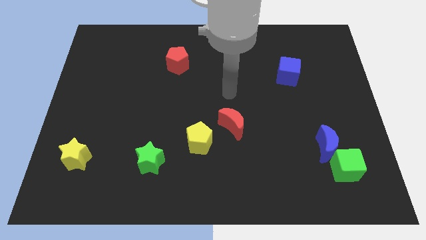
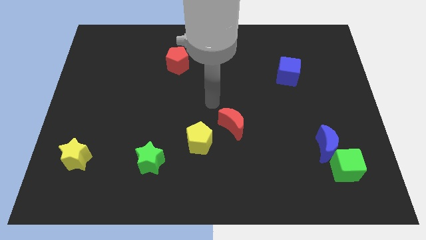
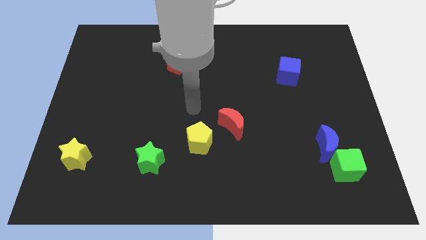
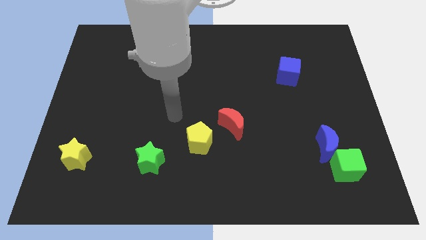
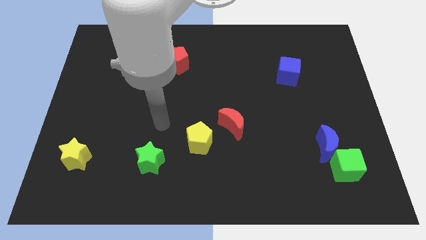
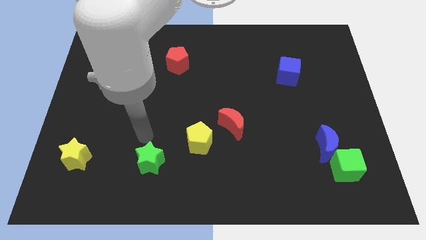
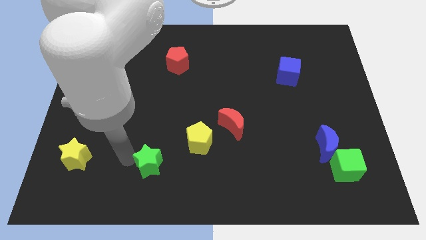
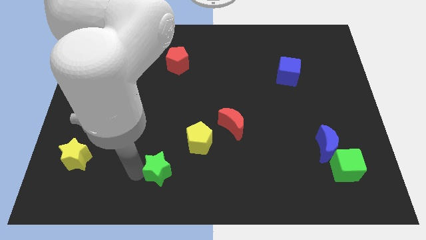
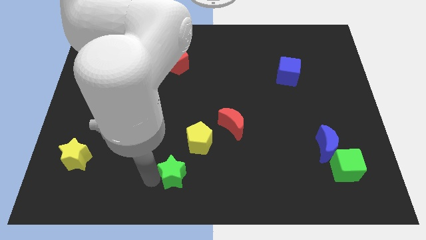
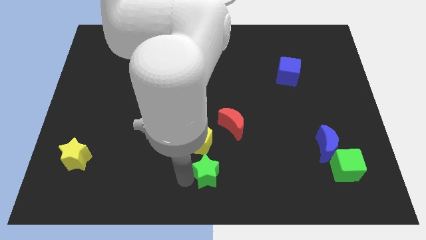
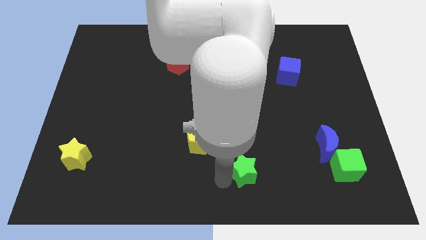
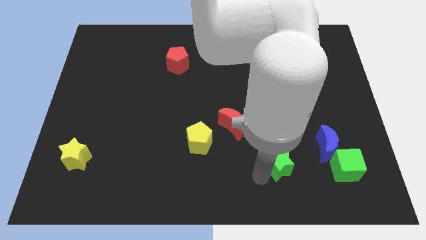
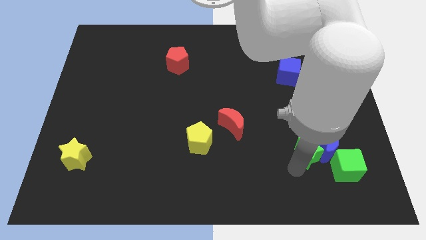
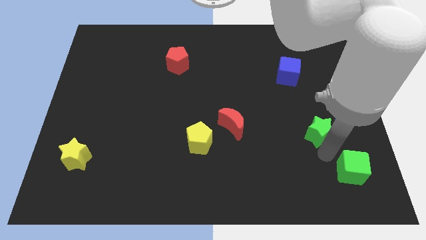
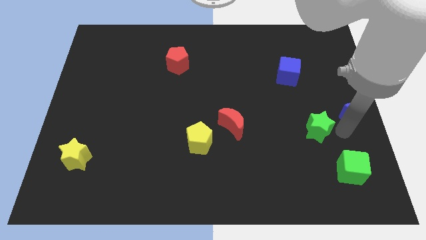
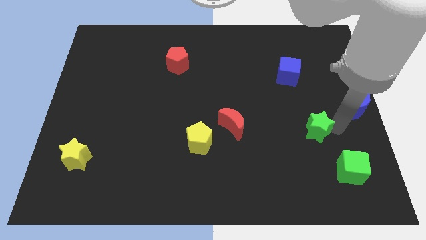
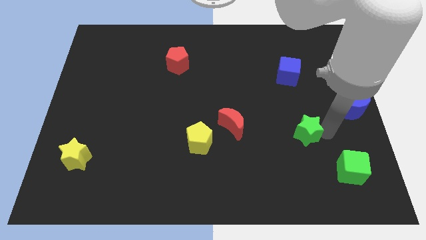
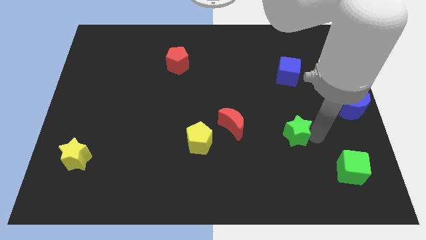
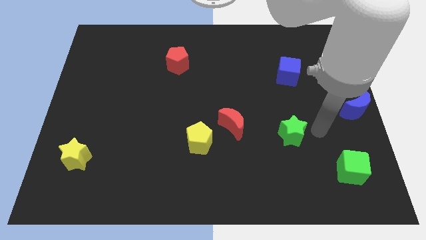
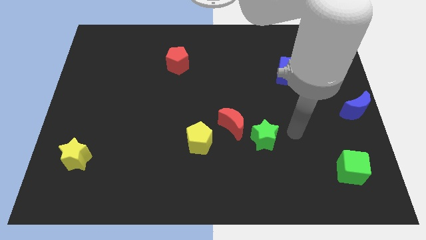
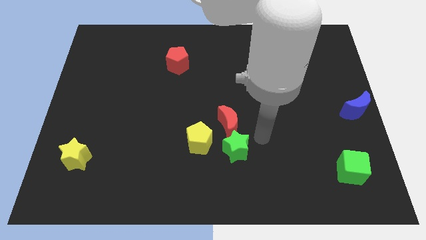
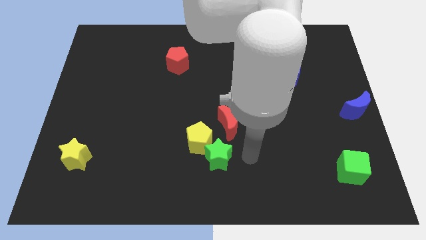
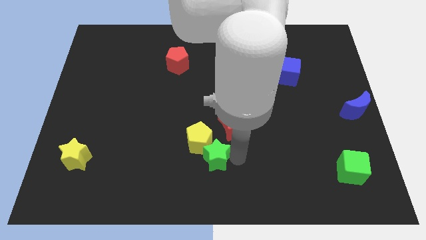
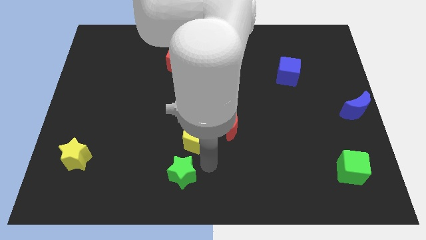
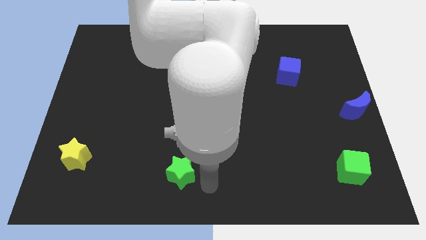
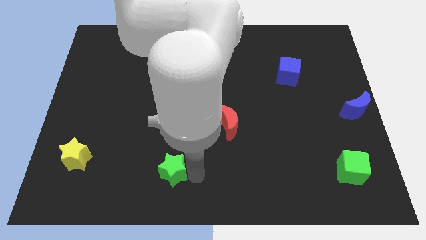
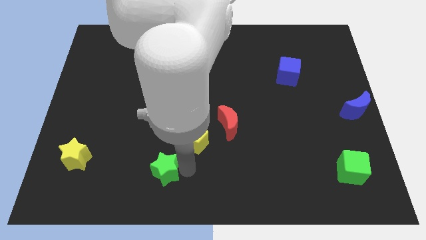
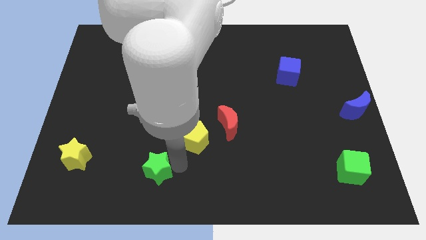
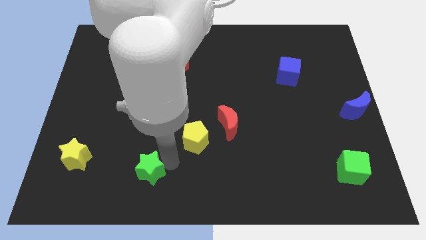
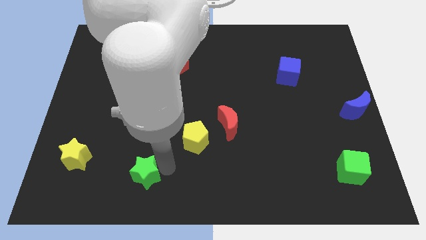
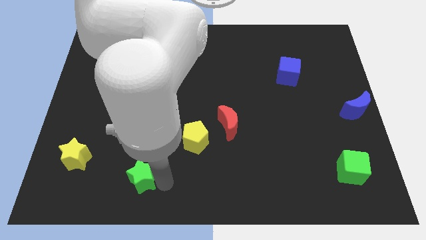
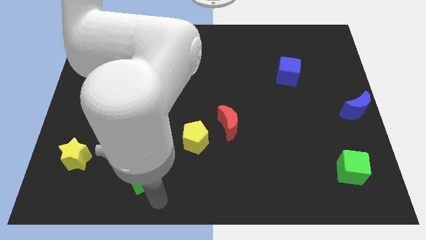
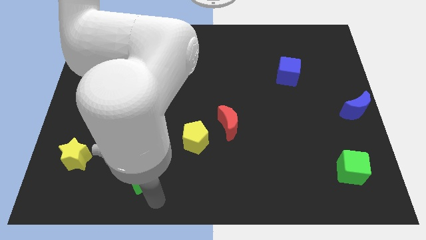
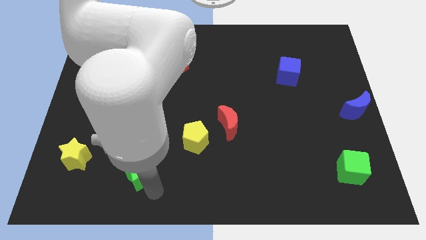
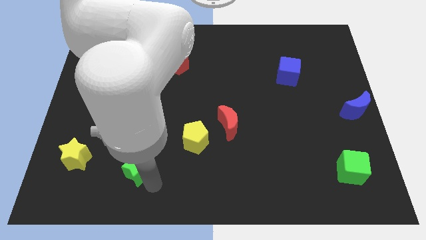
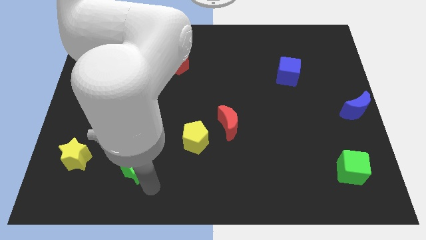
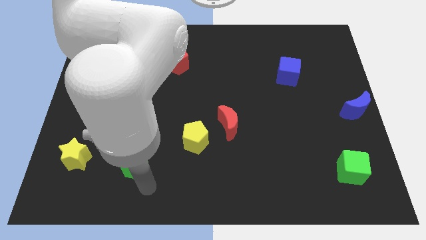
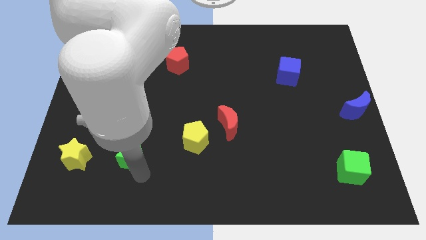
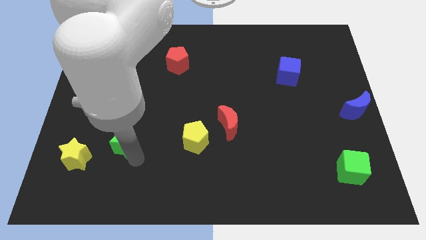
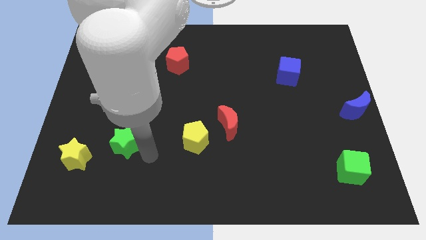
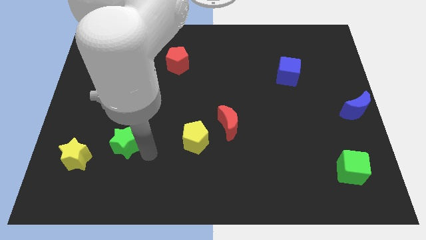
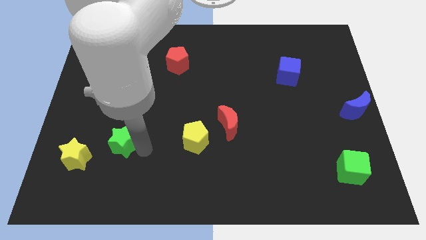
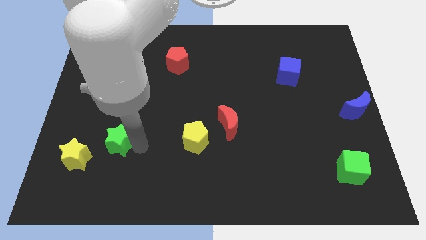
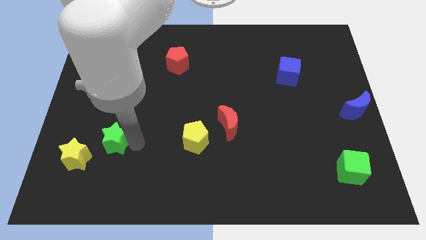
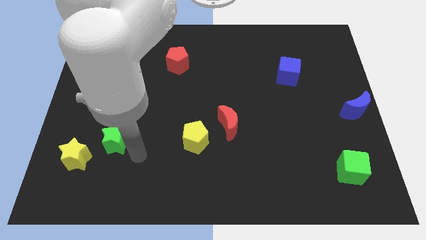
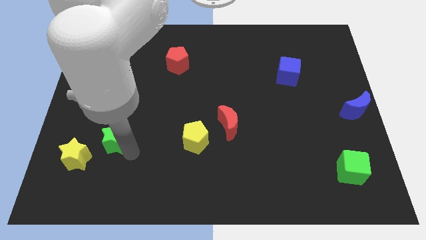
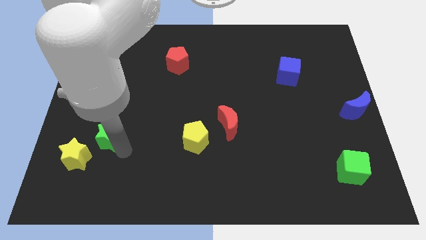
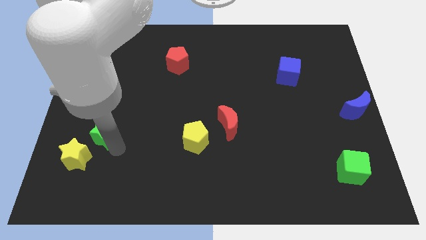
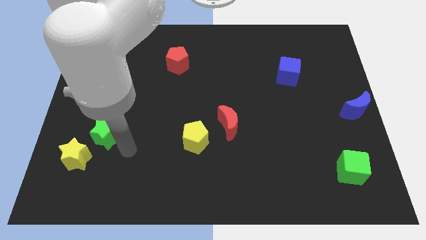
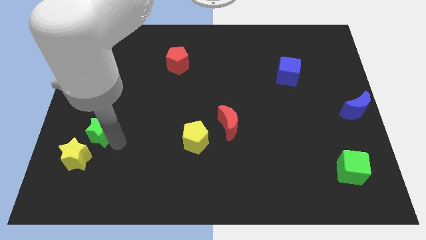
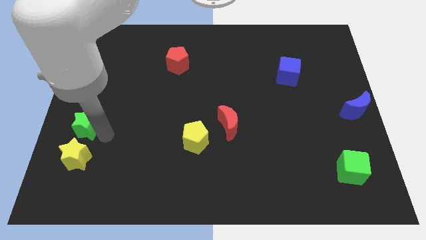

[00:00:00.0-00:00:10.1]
put the green star to the left side of the board

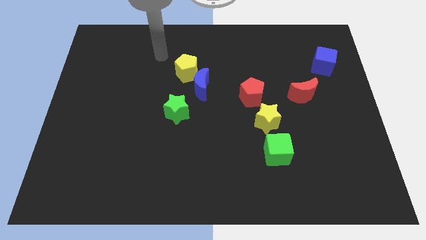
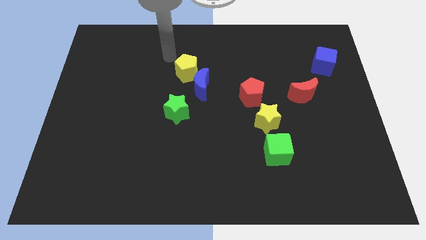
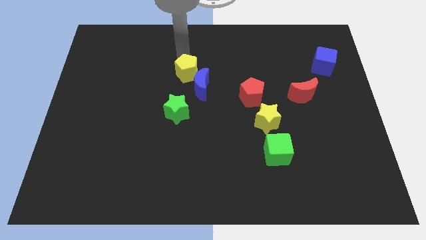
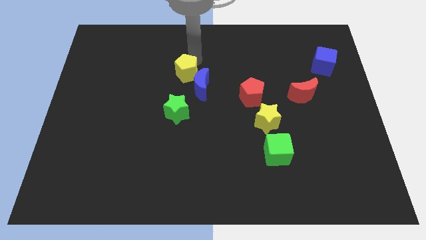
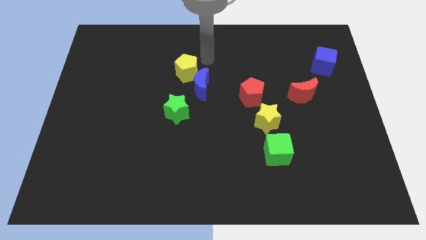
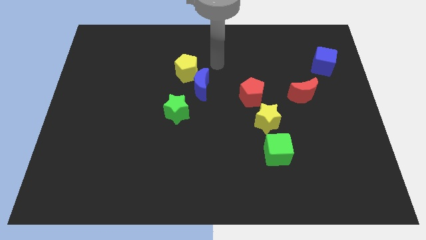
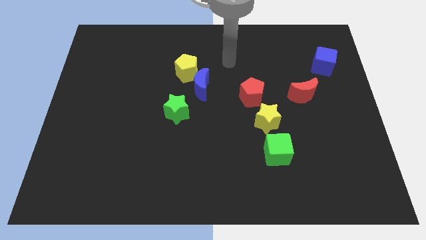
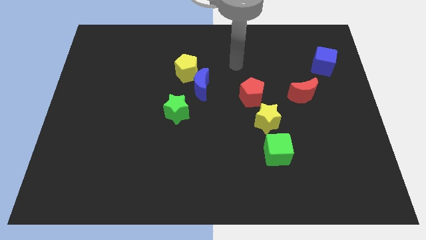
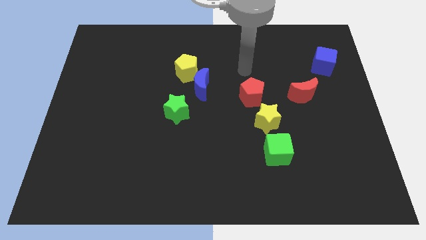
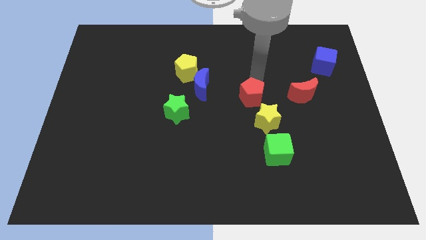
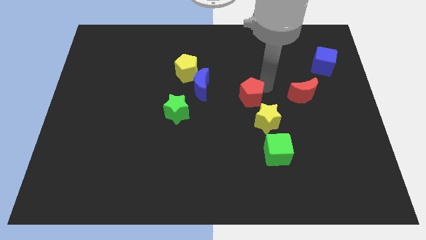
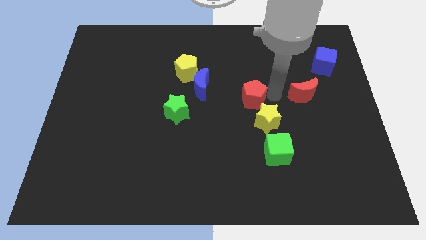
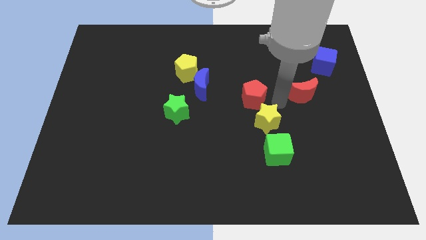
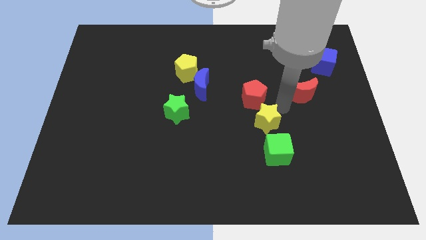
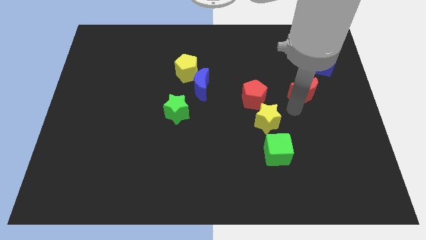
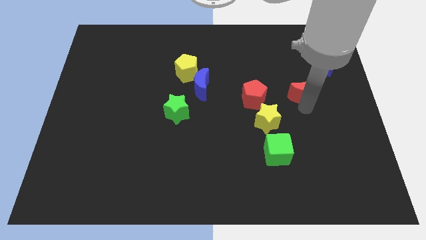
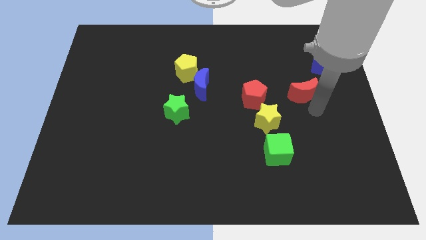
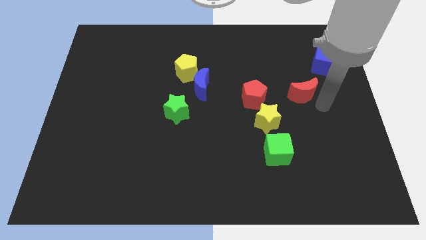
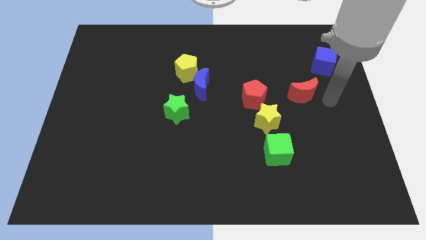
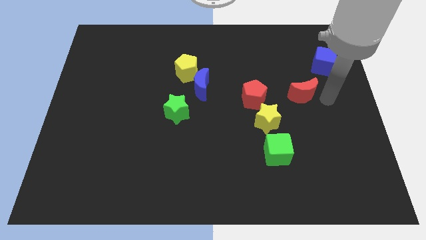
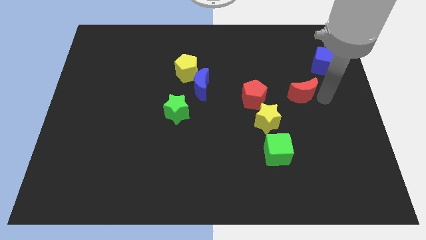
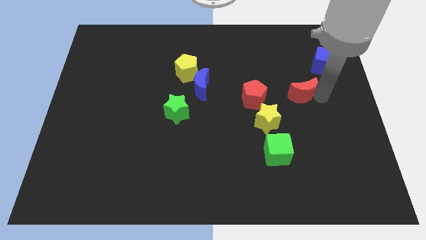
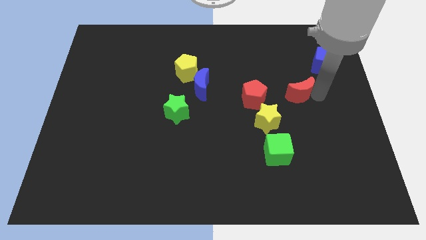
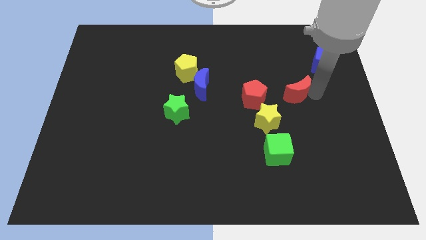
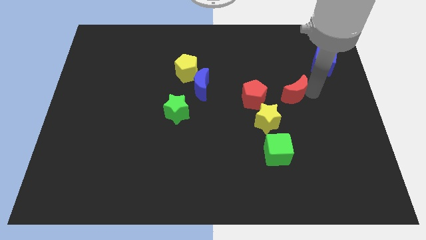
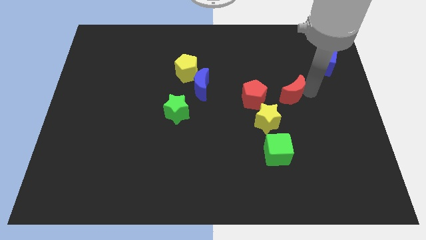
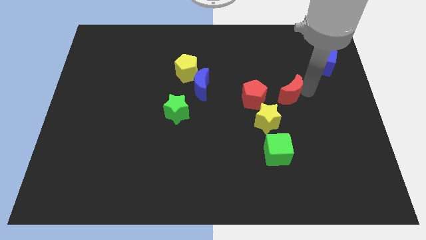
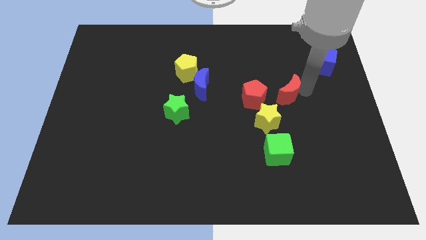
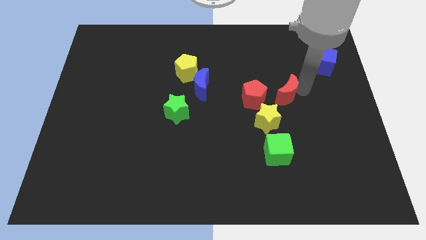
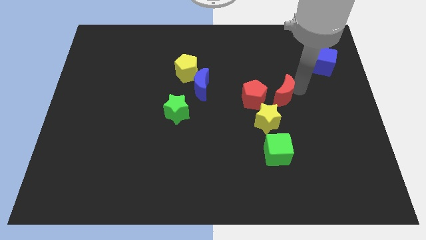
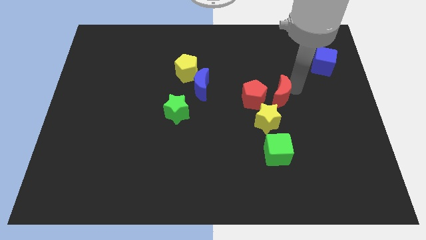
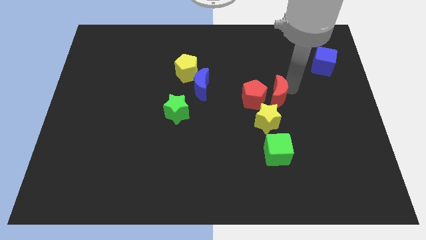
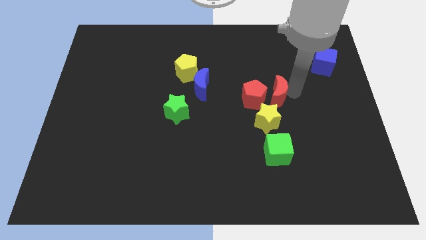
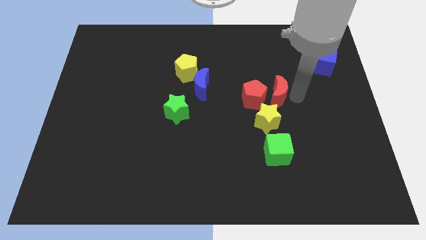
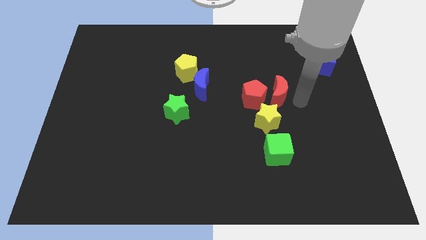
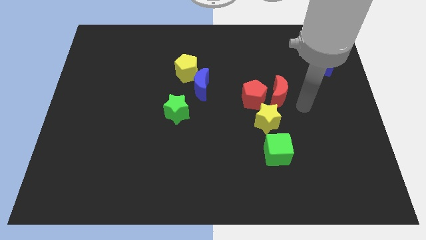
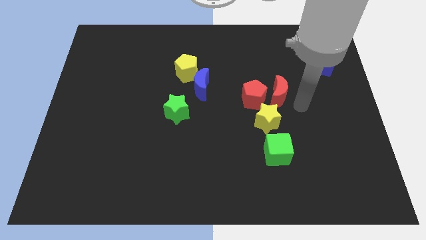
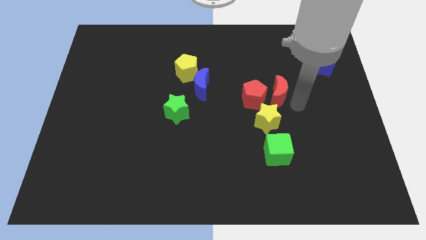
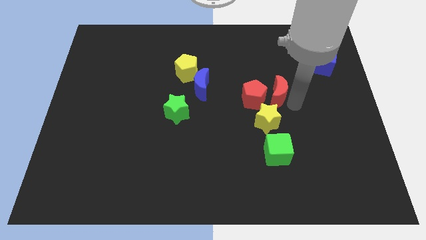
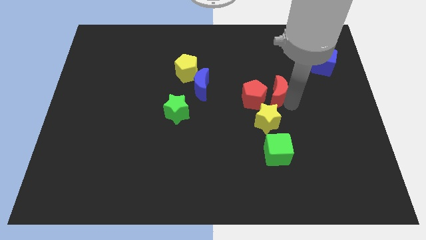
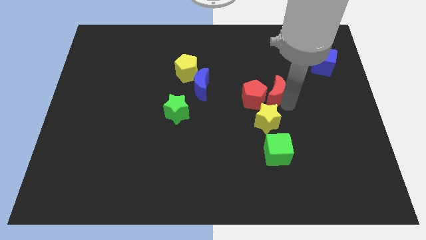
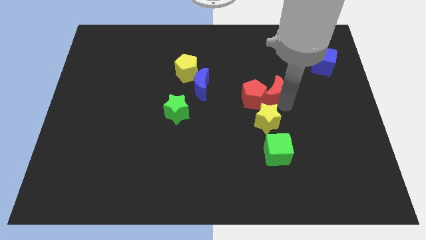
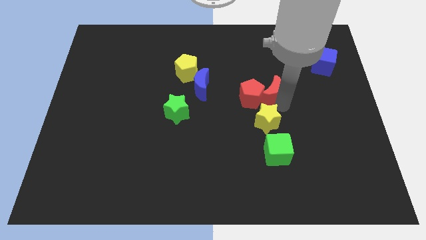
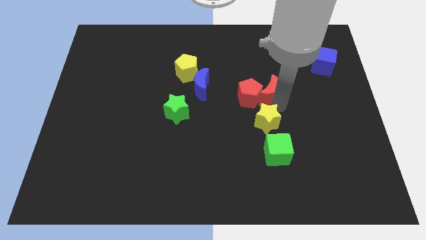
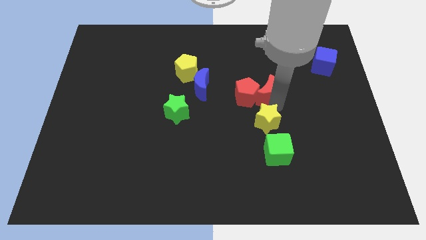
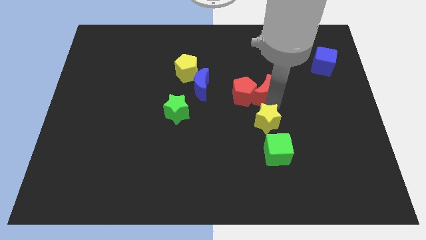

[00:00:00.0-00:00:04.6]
move the red moon to the middle
